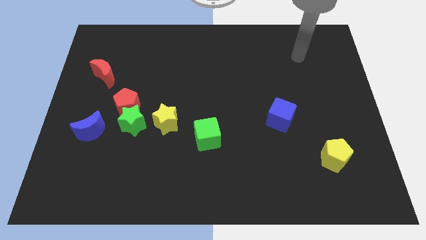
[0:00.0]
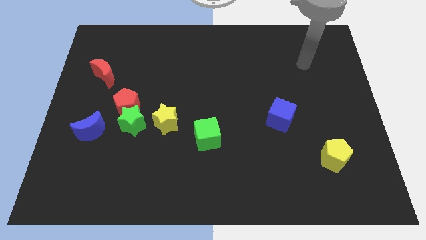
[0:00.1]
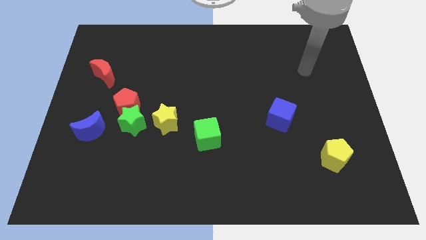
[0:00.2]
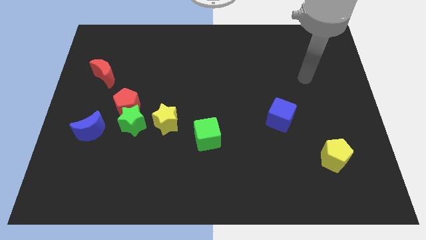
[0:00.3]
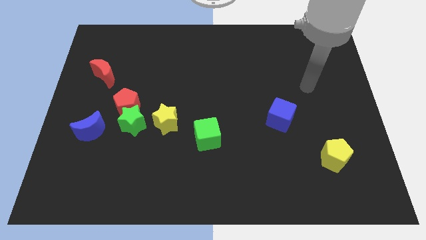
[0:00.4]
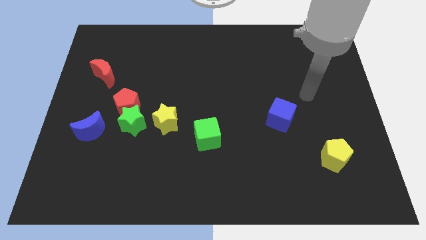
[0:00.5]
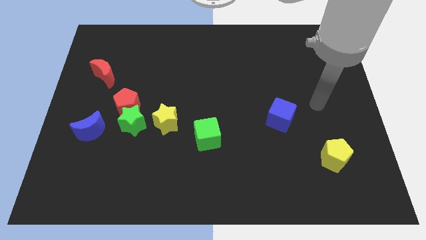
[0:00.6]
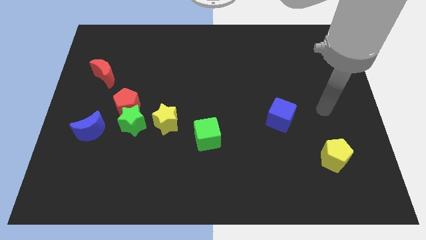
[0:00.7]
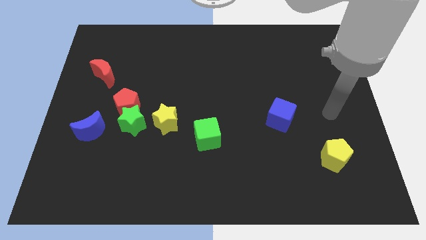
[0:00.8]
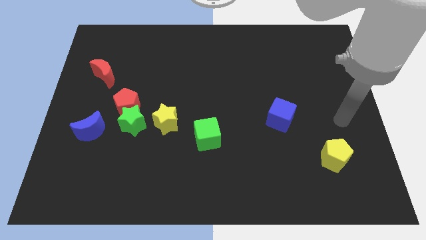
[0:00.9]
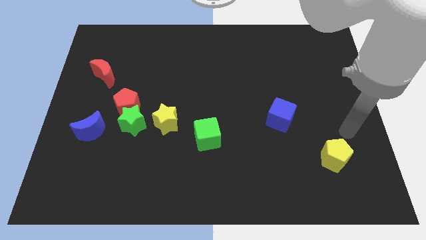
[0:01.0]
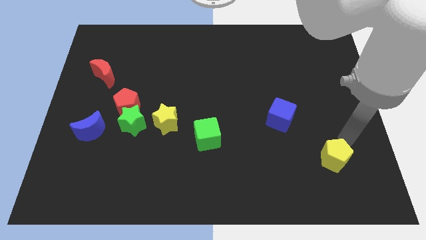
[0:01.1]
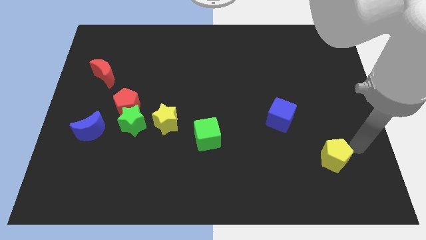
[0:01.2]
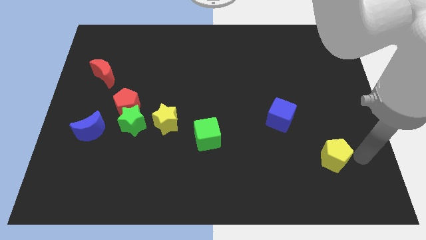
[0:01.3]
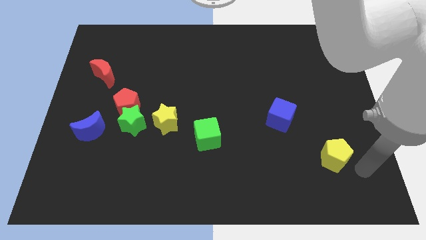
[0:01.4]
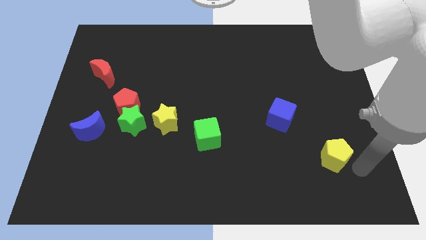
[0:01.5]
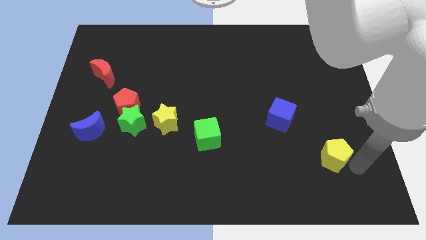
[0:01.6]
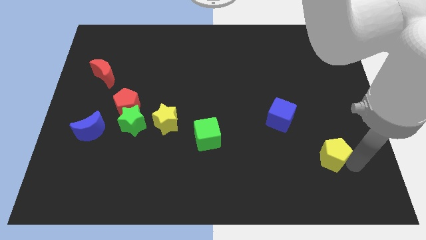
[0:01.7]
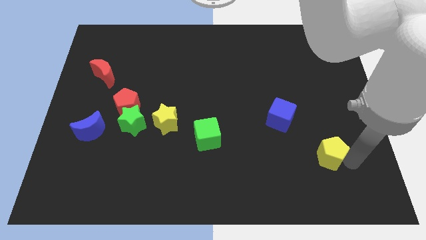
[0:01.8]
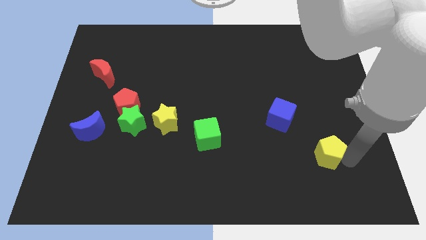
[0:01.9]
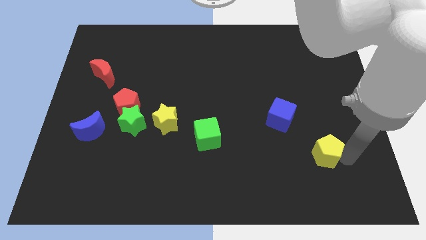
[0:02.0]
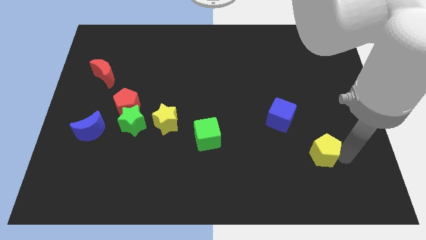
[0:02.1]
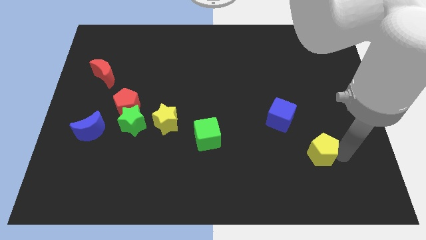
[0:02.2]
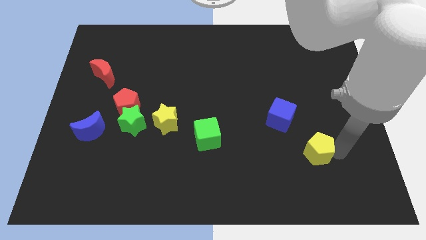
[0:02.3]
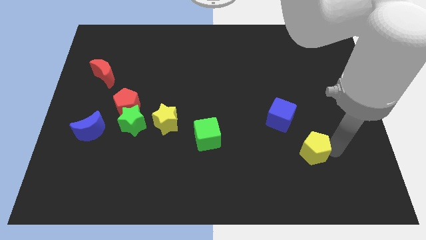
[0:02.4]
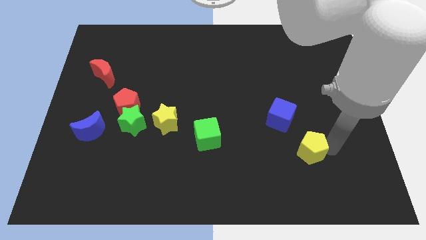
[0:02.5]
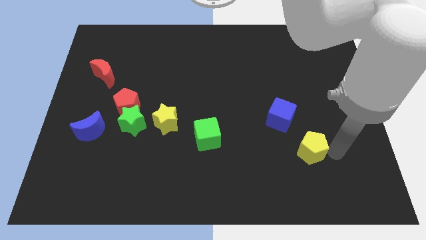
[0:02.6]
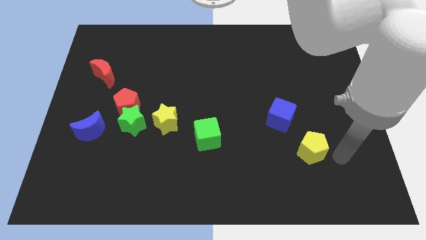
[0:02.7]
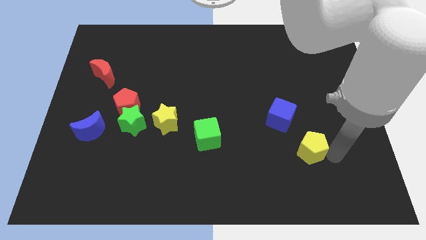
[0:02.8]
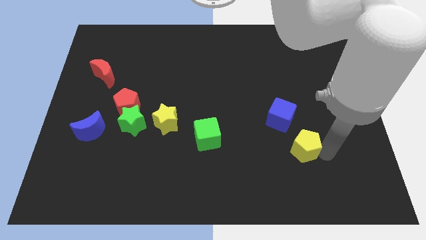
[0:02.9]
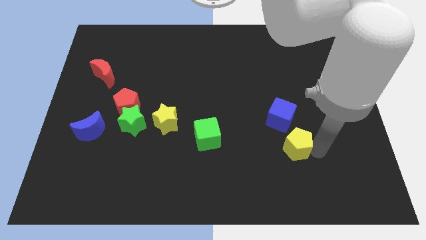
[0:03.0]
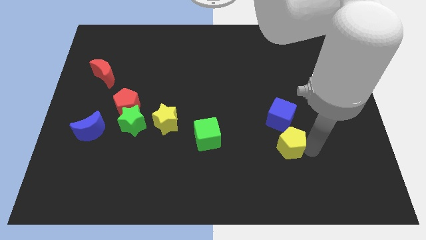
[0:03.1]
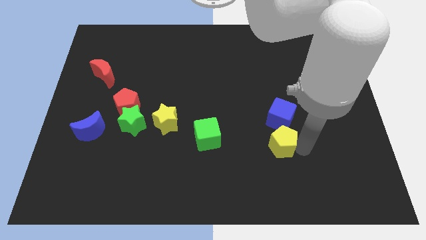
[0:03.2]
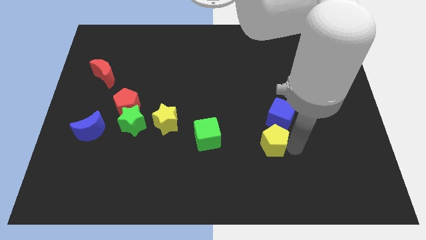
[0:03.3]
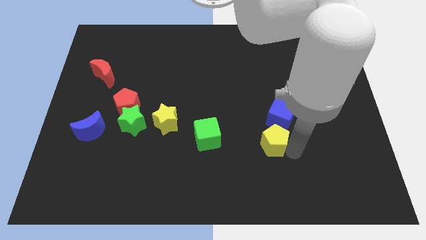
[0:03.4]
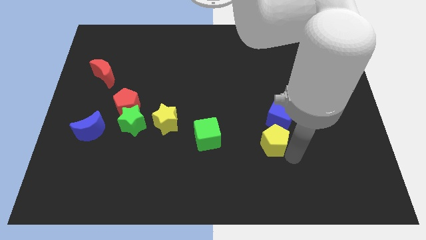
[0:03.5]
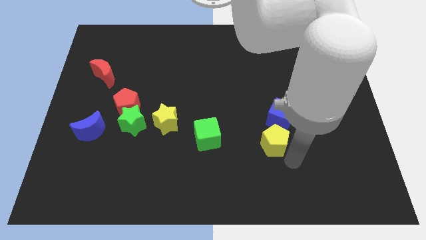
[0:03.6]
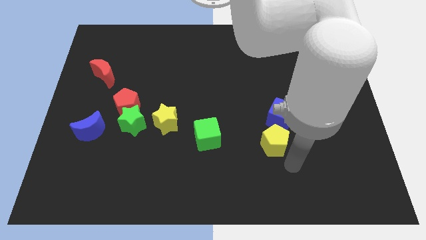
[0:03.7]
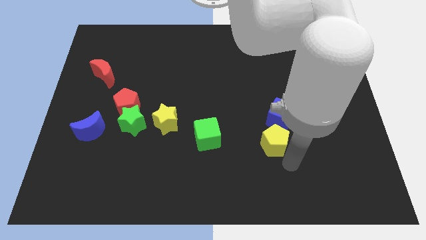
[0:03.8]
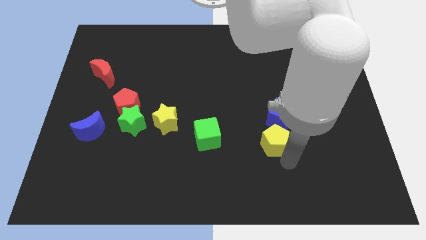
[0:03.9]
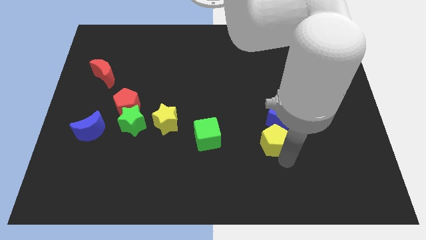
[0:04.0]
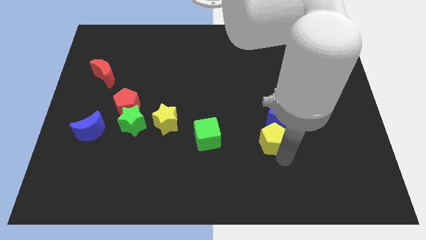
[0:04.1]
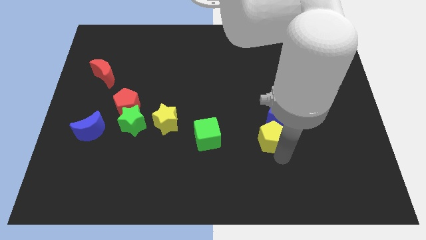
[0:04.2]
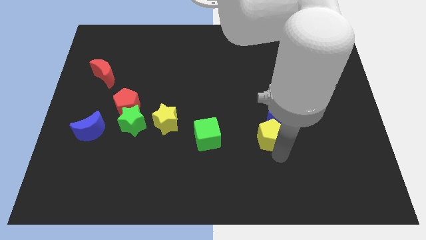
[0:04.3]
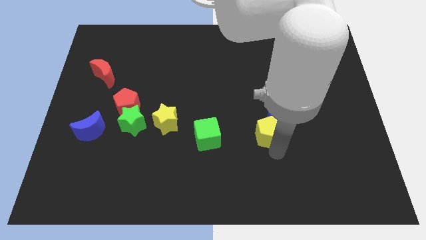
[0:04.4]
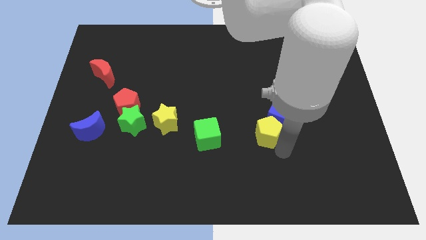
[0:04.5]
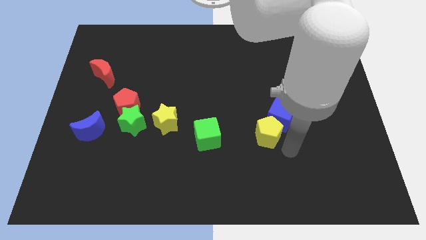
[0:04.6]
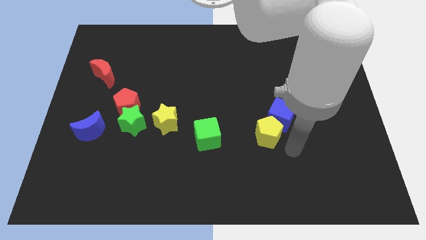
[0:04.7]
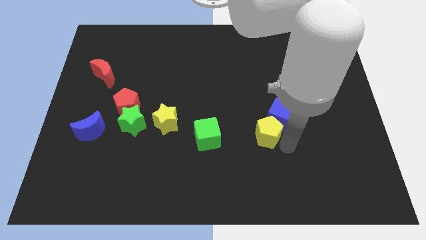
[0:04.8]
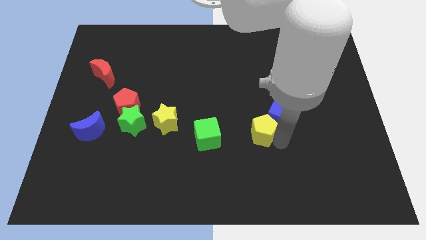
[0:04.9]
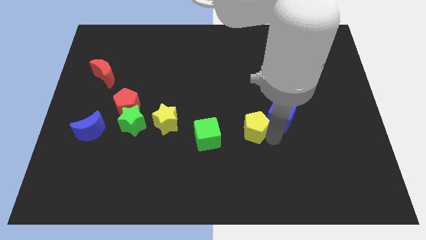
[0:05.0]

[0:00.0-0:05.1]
push the yellow pentagon to the middle

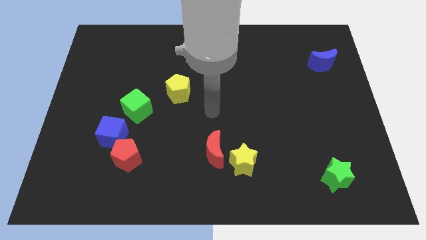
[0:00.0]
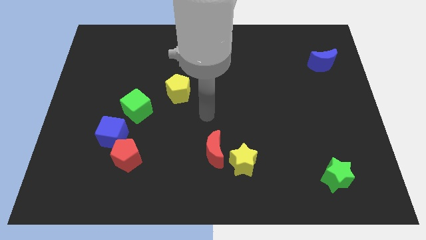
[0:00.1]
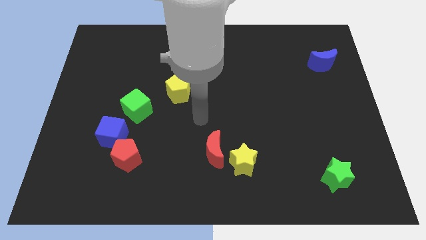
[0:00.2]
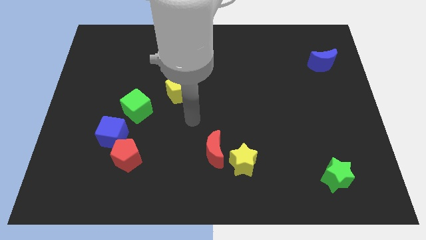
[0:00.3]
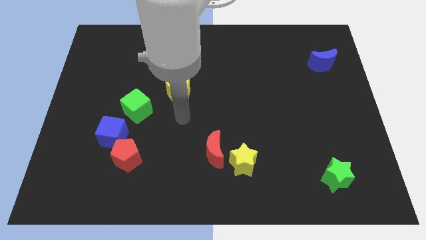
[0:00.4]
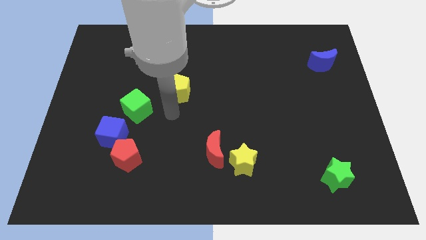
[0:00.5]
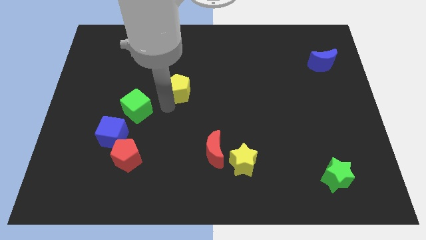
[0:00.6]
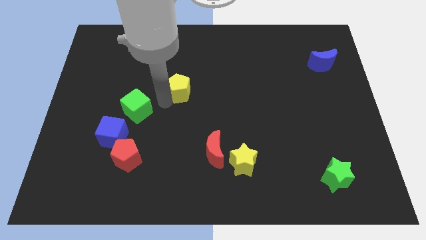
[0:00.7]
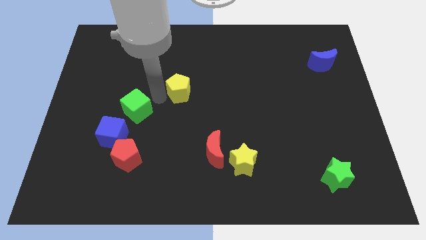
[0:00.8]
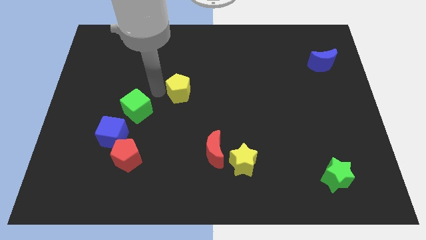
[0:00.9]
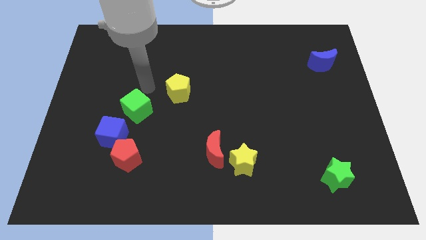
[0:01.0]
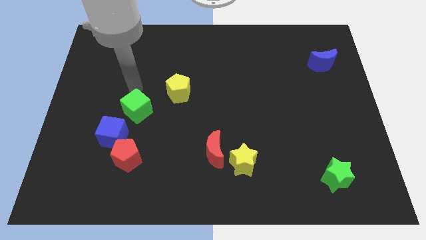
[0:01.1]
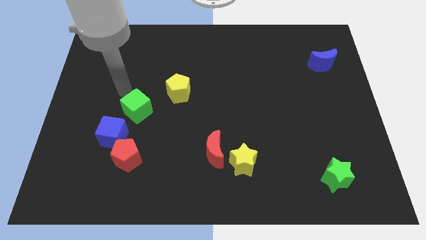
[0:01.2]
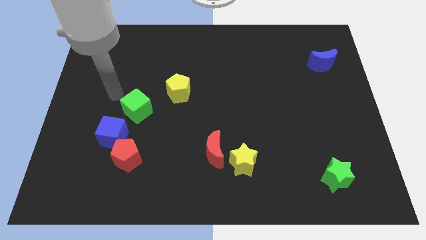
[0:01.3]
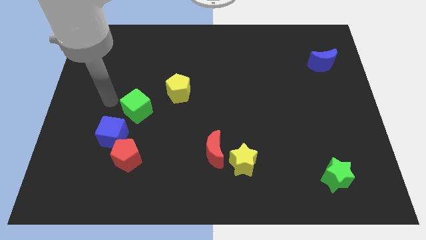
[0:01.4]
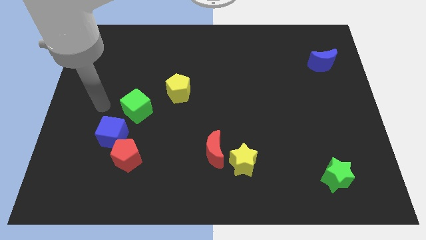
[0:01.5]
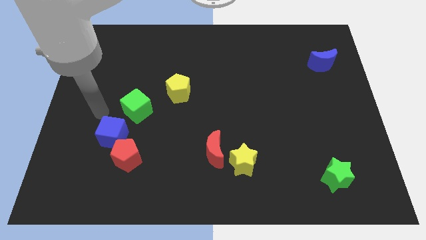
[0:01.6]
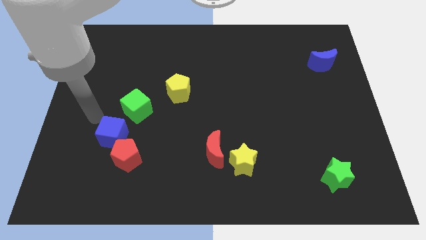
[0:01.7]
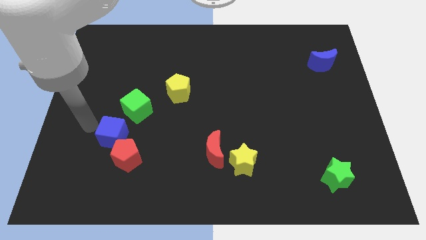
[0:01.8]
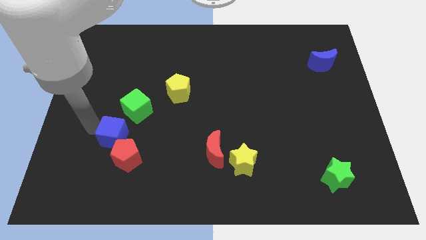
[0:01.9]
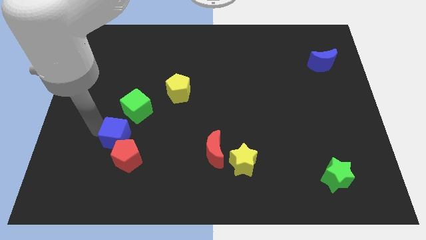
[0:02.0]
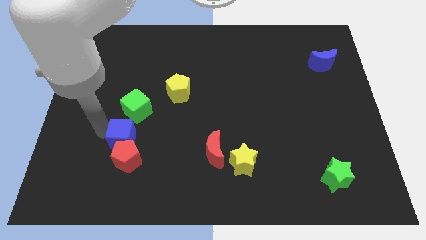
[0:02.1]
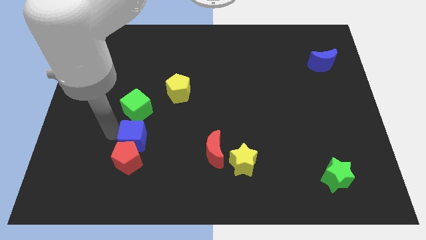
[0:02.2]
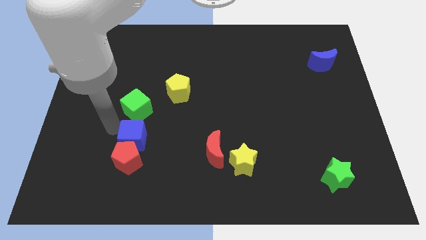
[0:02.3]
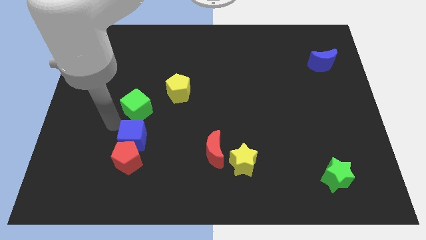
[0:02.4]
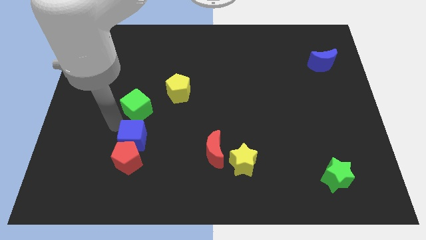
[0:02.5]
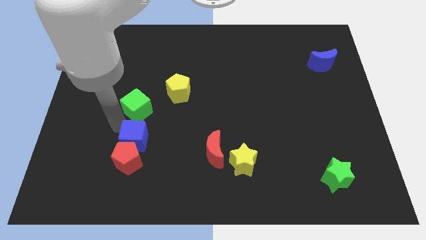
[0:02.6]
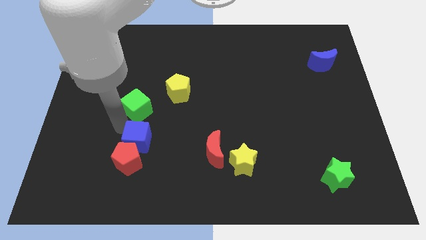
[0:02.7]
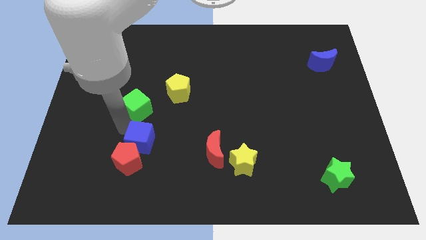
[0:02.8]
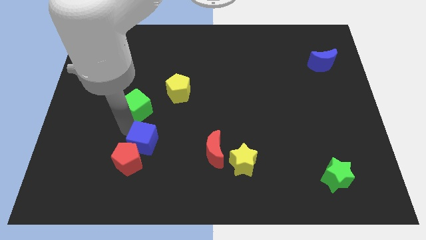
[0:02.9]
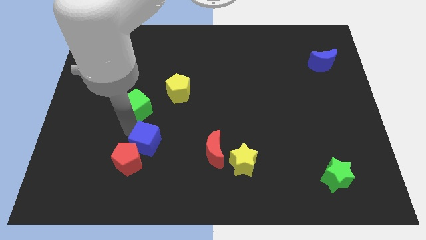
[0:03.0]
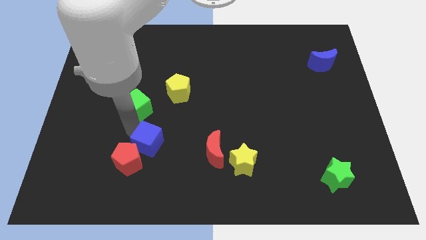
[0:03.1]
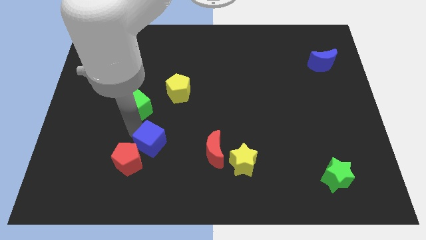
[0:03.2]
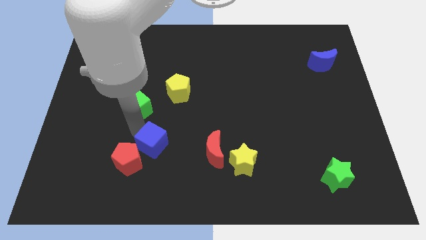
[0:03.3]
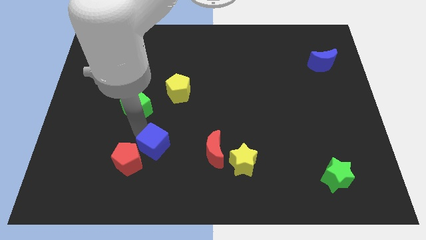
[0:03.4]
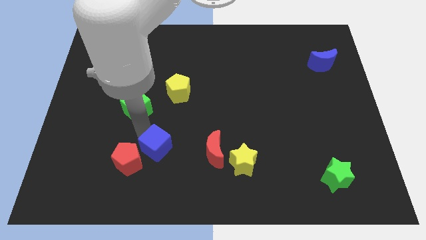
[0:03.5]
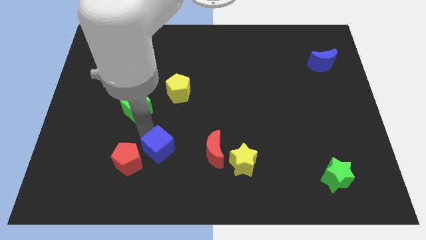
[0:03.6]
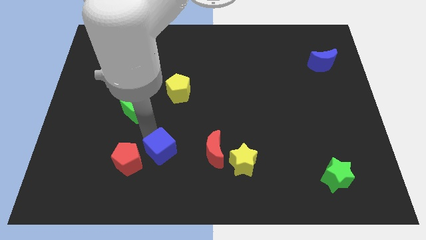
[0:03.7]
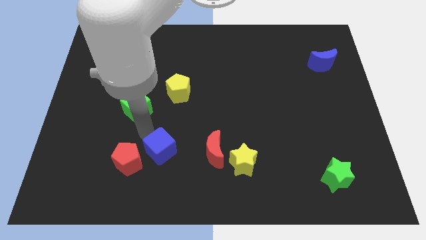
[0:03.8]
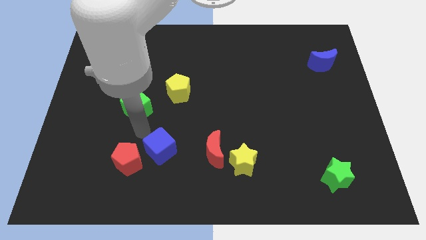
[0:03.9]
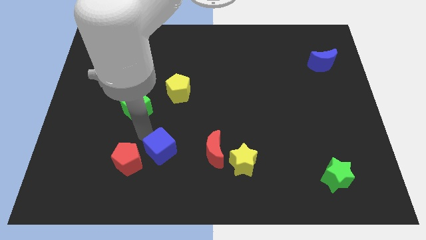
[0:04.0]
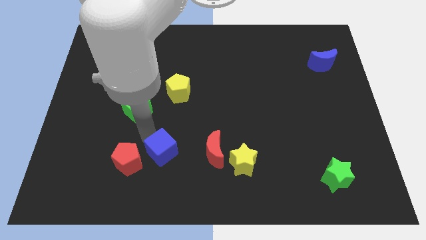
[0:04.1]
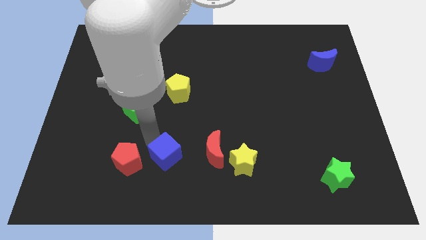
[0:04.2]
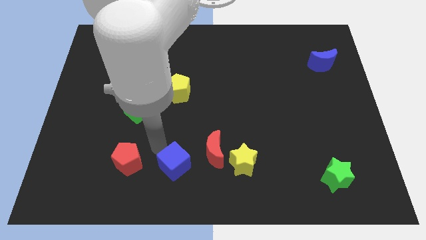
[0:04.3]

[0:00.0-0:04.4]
move the blue cube to the bottom
